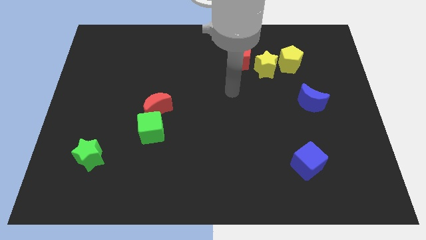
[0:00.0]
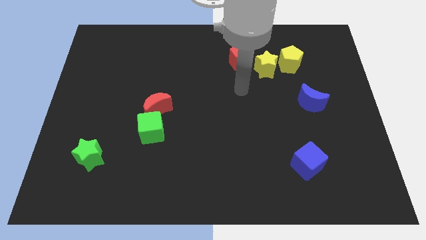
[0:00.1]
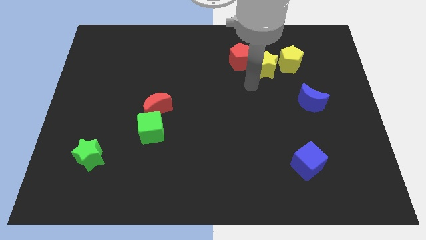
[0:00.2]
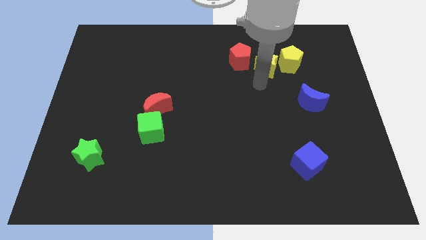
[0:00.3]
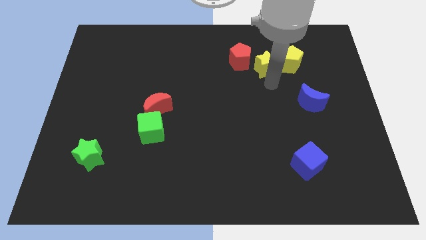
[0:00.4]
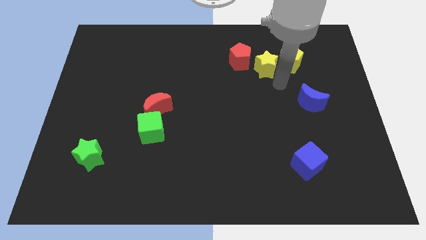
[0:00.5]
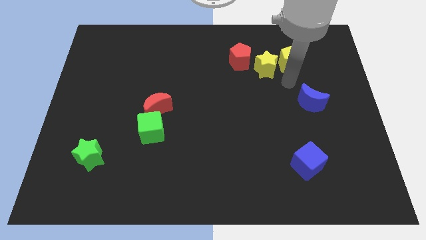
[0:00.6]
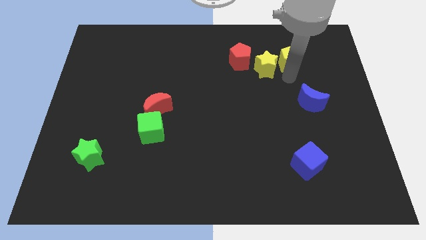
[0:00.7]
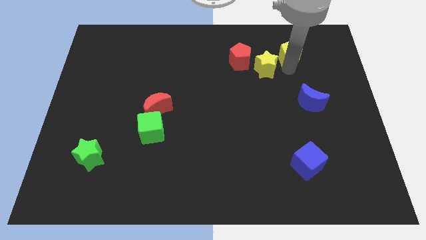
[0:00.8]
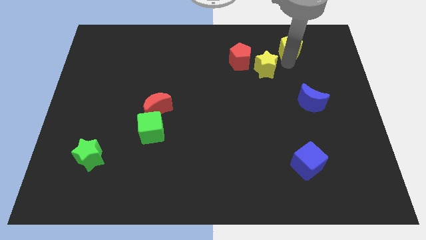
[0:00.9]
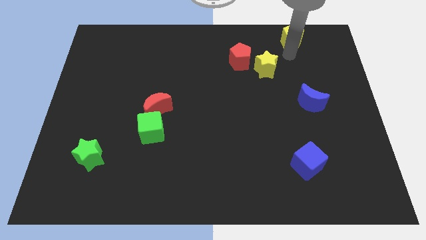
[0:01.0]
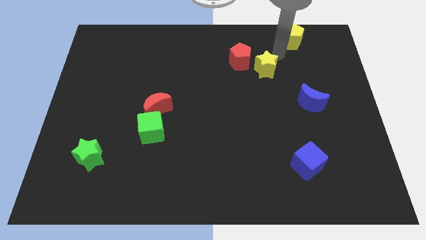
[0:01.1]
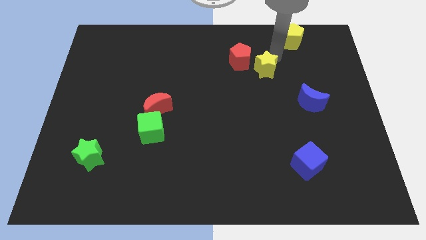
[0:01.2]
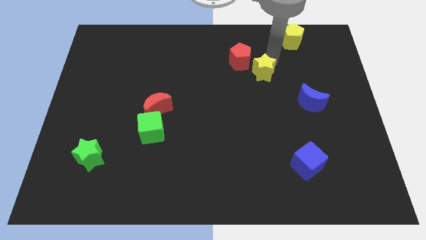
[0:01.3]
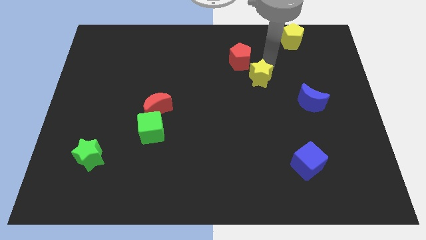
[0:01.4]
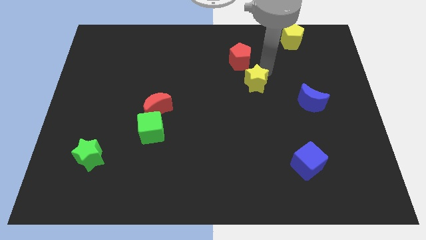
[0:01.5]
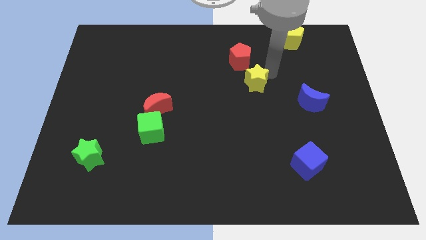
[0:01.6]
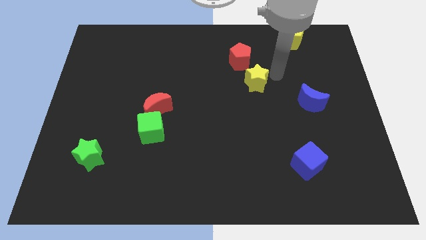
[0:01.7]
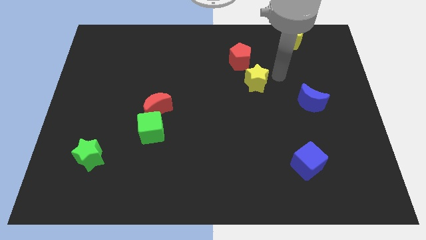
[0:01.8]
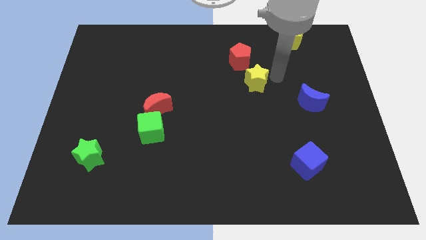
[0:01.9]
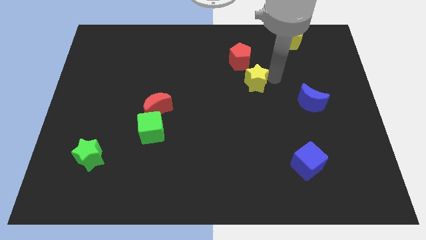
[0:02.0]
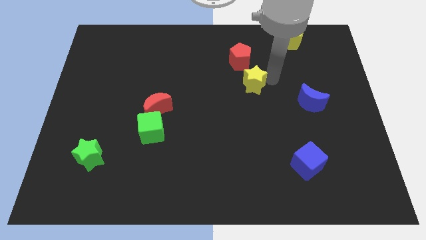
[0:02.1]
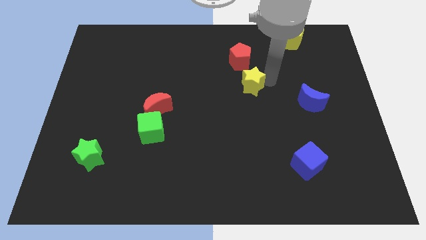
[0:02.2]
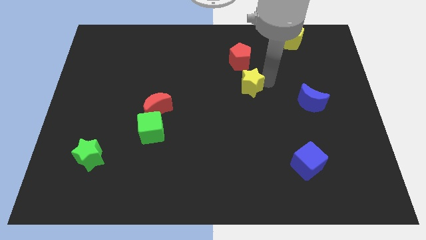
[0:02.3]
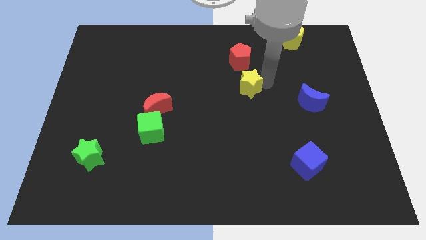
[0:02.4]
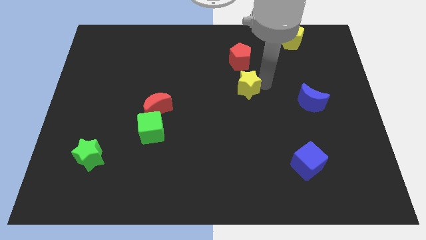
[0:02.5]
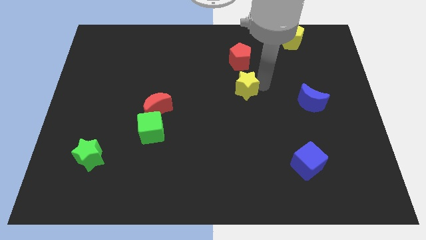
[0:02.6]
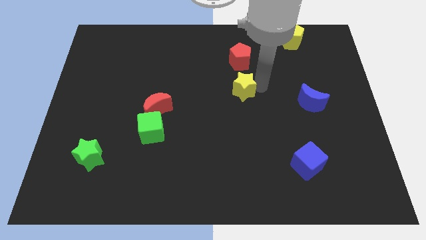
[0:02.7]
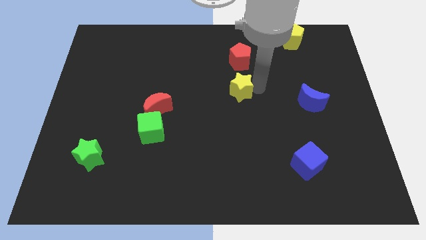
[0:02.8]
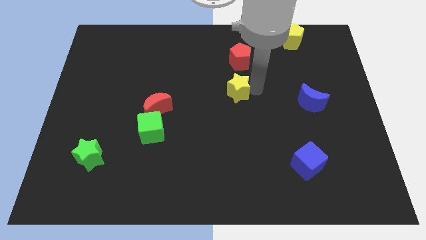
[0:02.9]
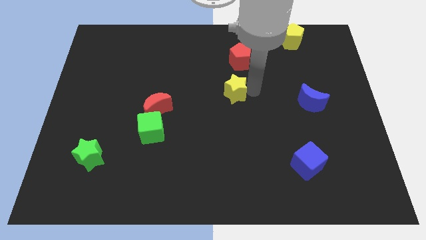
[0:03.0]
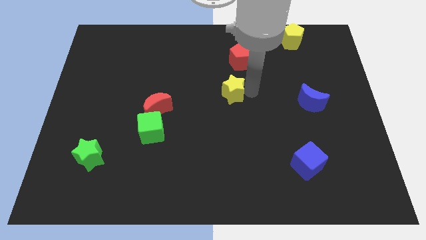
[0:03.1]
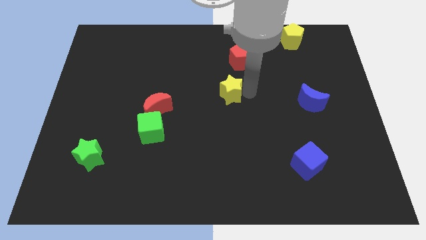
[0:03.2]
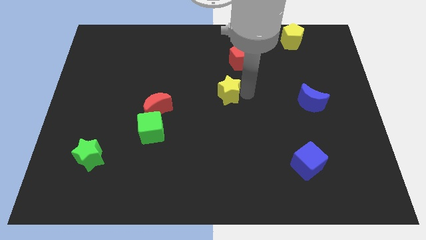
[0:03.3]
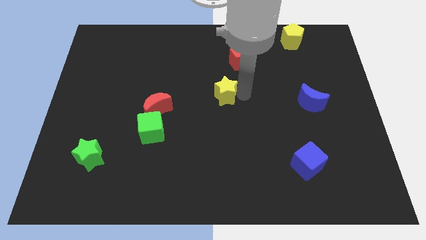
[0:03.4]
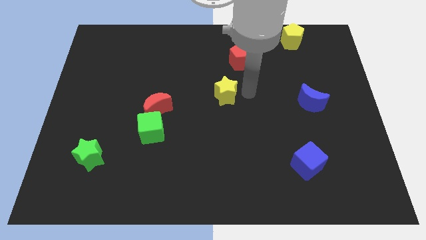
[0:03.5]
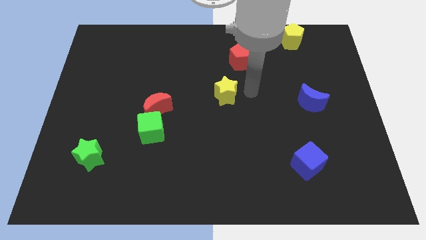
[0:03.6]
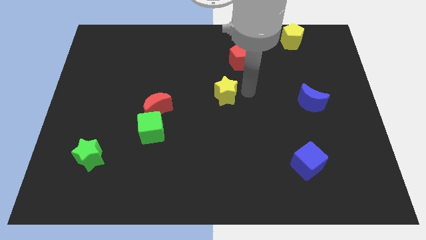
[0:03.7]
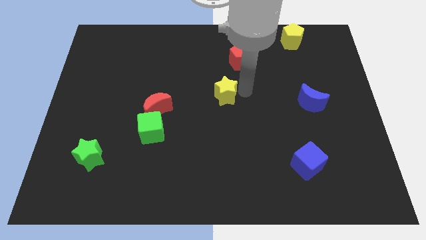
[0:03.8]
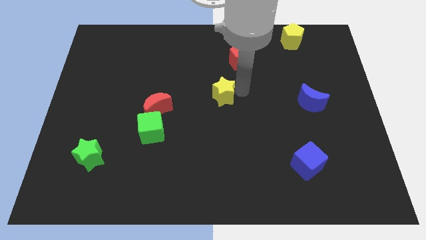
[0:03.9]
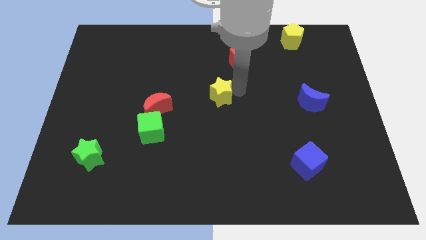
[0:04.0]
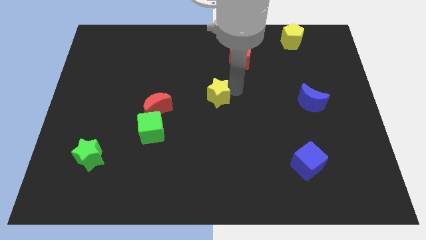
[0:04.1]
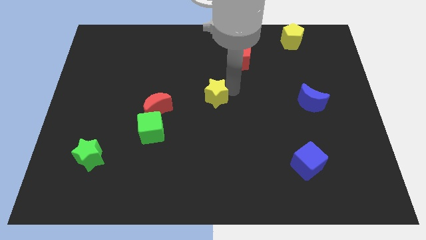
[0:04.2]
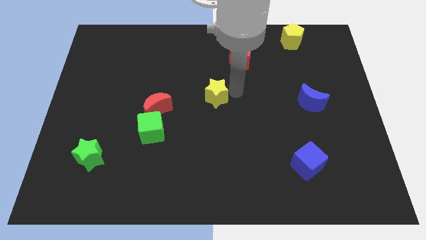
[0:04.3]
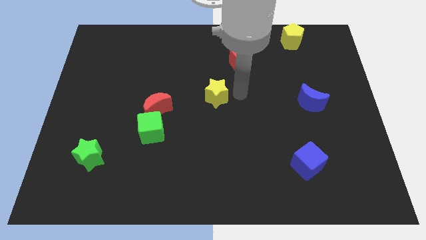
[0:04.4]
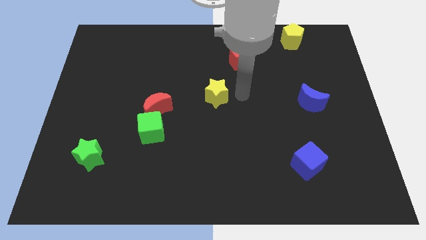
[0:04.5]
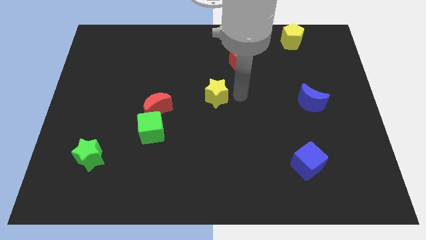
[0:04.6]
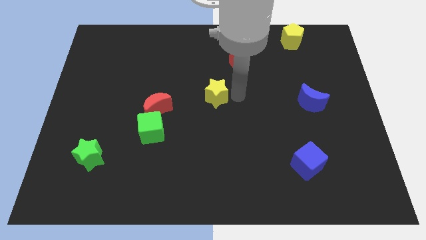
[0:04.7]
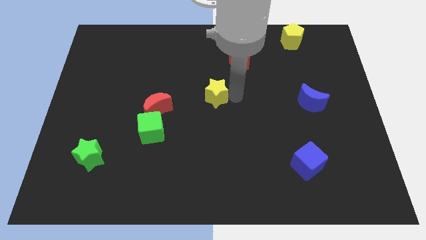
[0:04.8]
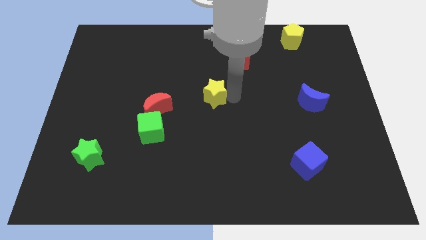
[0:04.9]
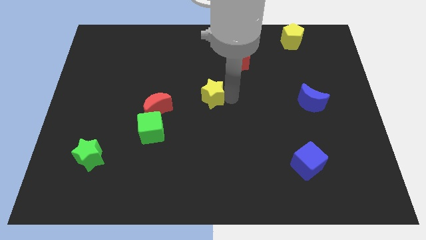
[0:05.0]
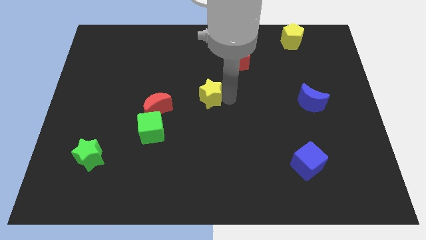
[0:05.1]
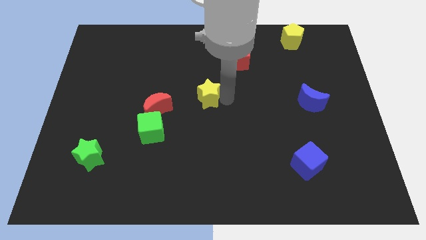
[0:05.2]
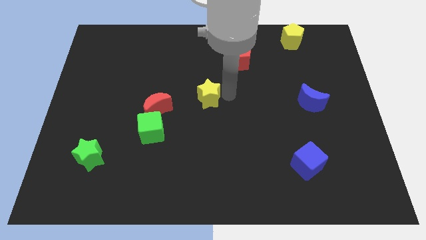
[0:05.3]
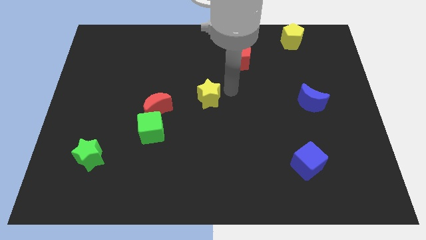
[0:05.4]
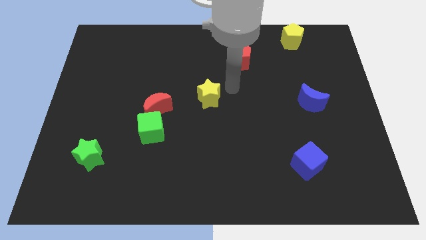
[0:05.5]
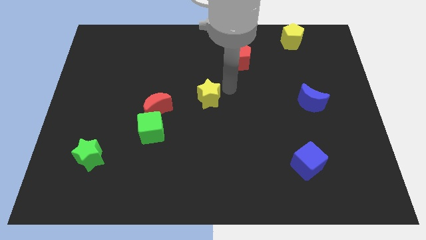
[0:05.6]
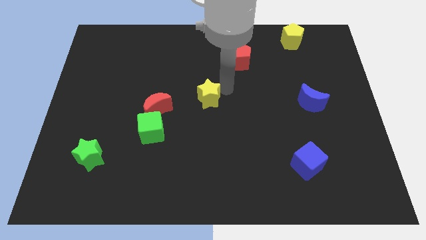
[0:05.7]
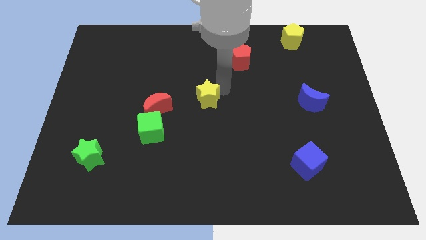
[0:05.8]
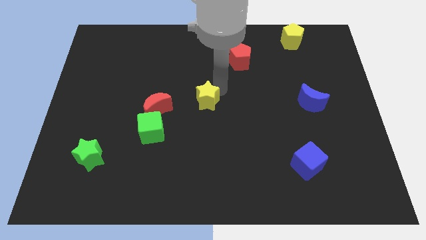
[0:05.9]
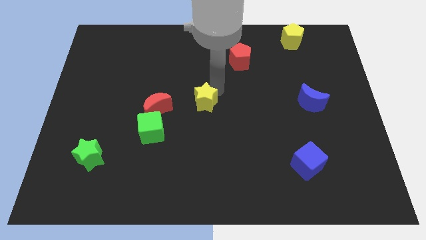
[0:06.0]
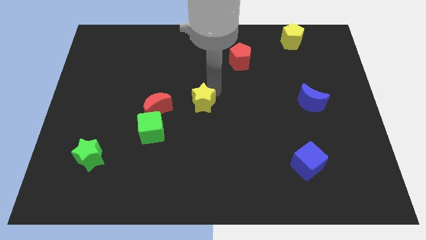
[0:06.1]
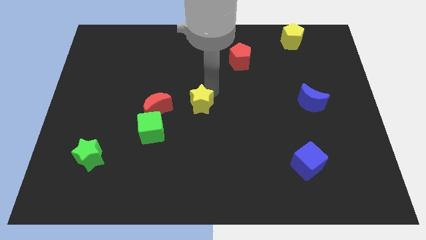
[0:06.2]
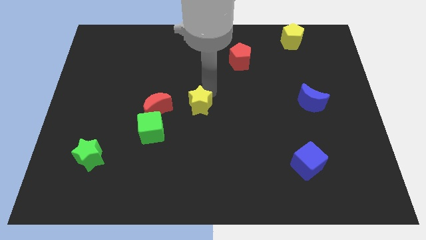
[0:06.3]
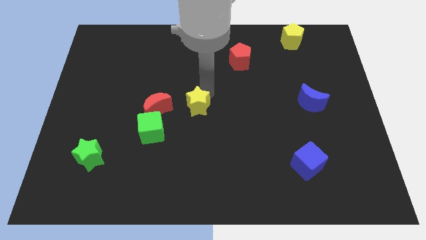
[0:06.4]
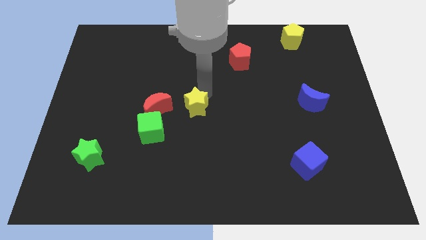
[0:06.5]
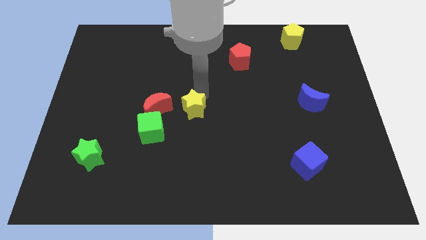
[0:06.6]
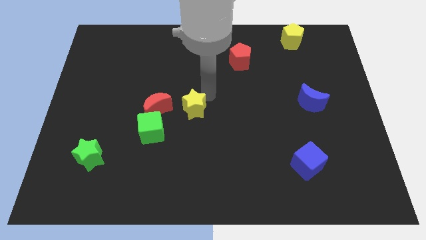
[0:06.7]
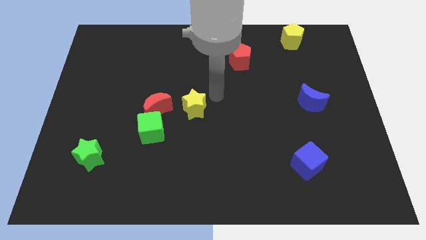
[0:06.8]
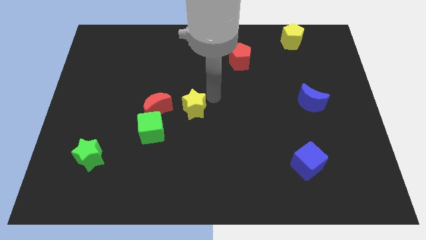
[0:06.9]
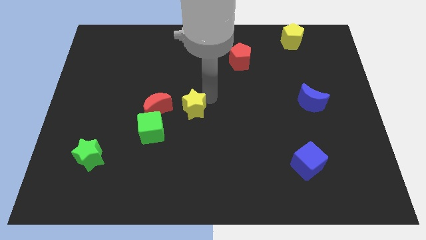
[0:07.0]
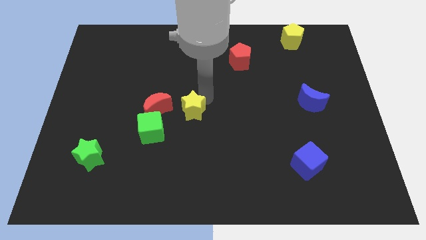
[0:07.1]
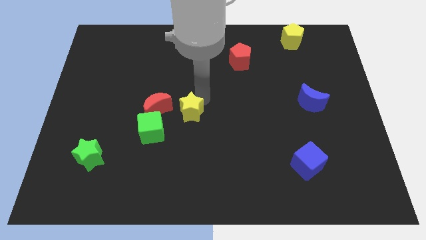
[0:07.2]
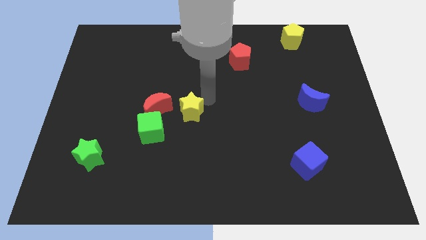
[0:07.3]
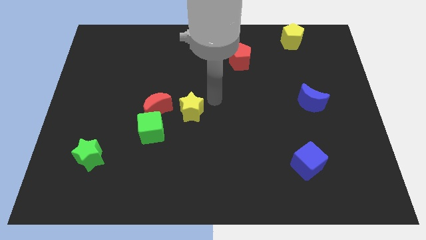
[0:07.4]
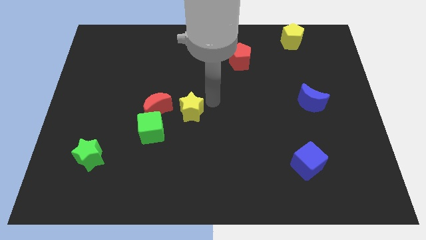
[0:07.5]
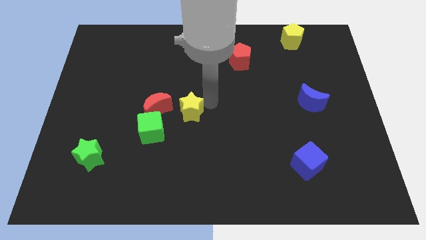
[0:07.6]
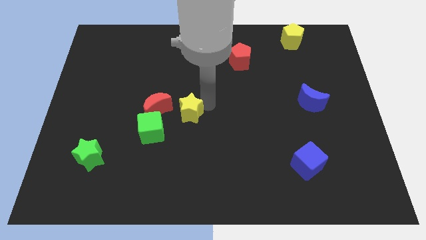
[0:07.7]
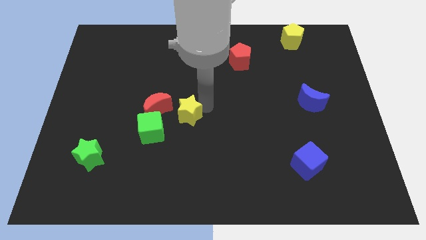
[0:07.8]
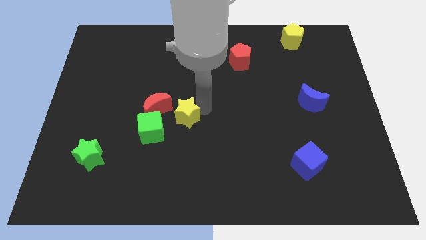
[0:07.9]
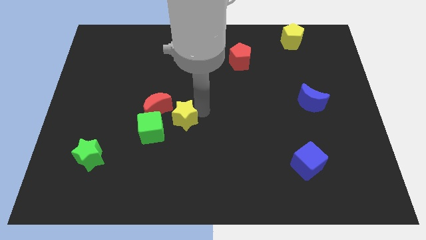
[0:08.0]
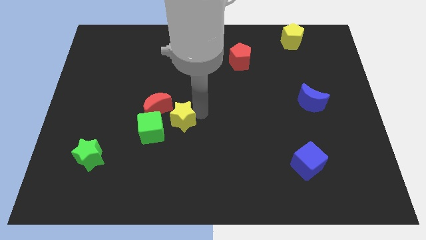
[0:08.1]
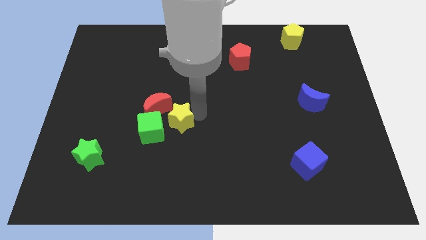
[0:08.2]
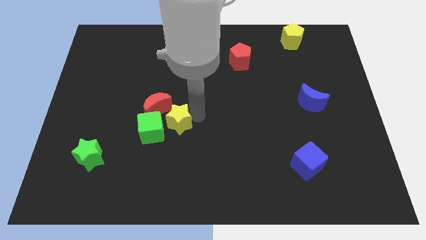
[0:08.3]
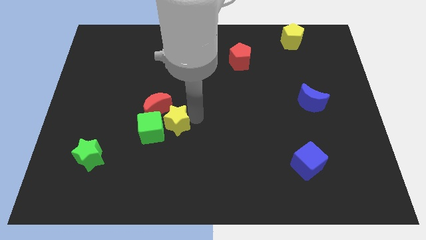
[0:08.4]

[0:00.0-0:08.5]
push the yellow star towards the green cube
